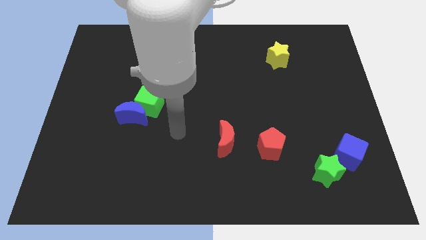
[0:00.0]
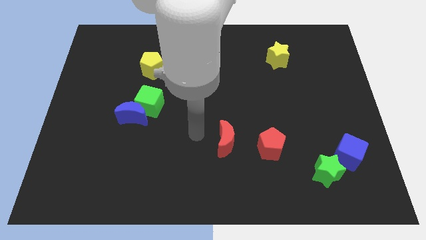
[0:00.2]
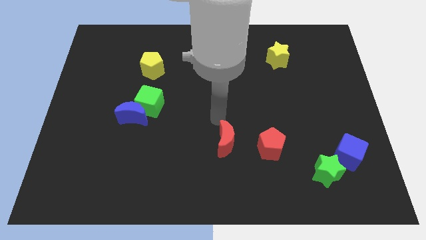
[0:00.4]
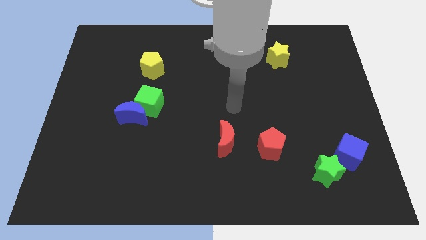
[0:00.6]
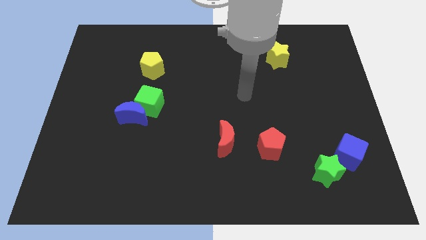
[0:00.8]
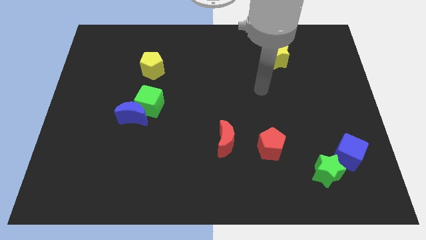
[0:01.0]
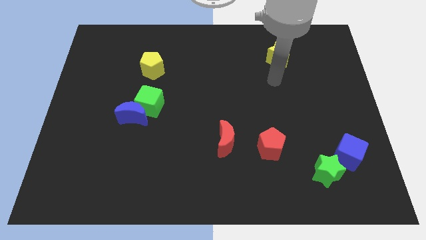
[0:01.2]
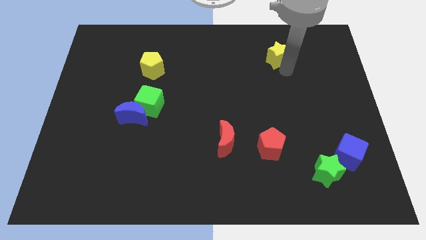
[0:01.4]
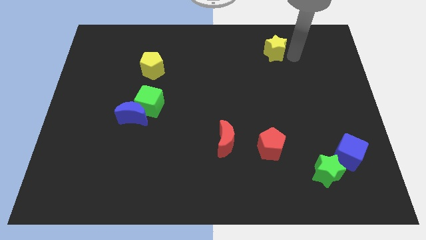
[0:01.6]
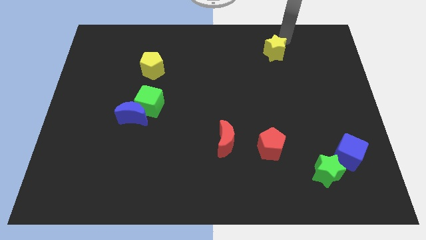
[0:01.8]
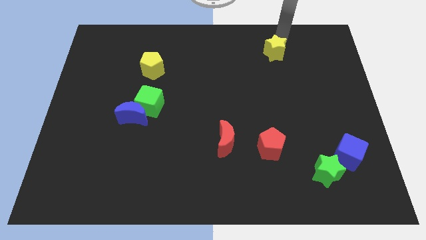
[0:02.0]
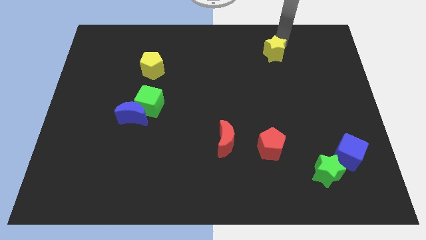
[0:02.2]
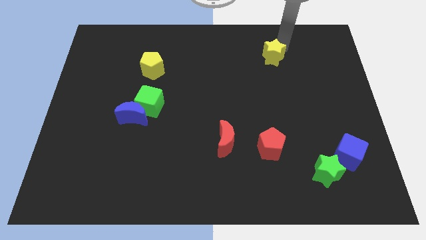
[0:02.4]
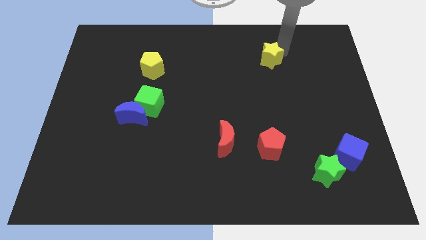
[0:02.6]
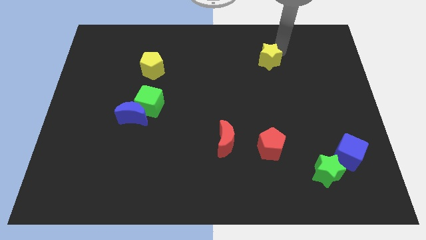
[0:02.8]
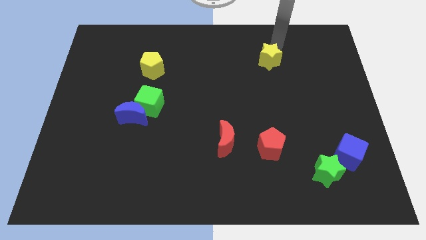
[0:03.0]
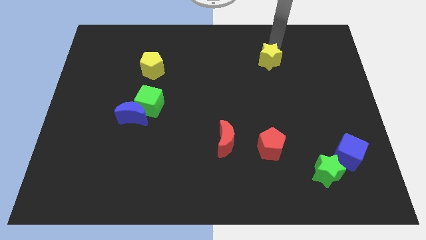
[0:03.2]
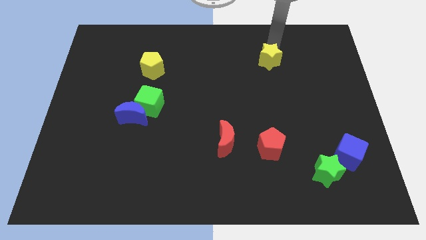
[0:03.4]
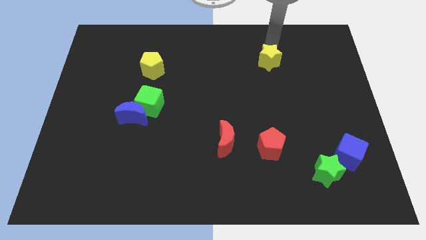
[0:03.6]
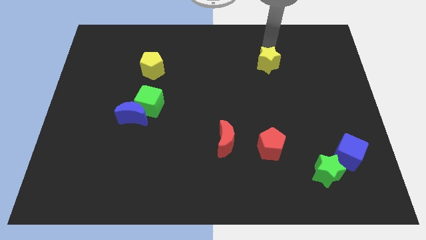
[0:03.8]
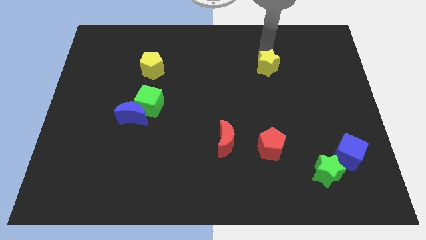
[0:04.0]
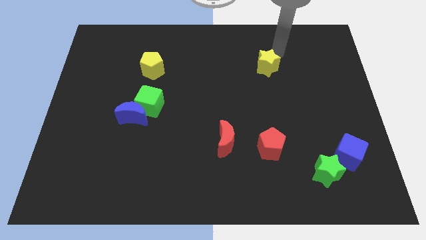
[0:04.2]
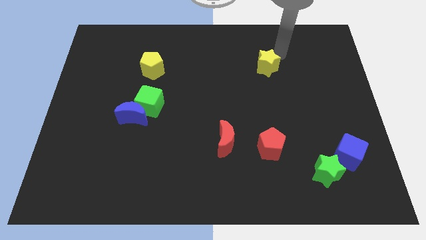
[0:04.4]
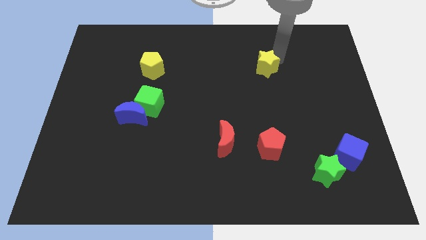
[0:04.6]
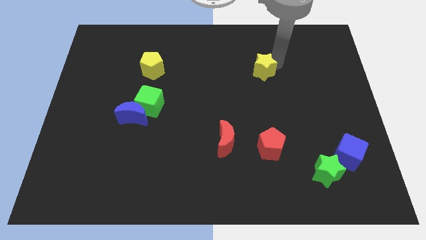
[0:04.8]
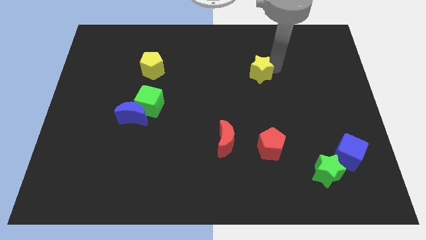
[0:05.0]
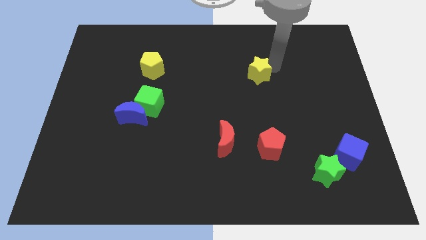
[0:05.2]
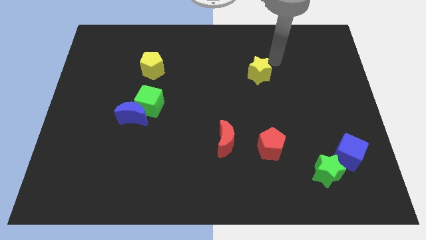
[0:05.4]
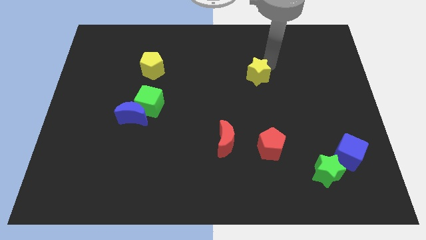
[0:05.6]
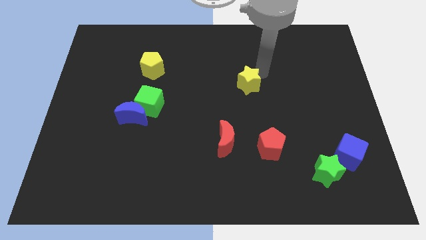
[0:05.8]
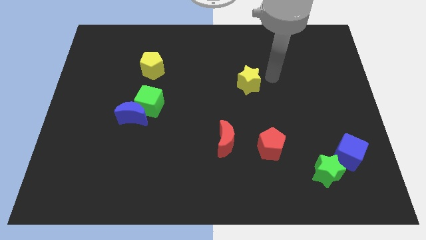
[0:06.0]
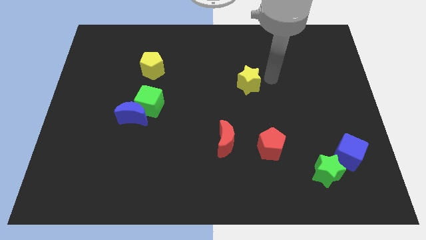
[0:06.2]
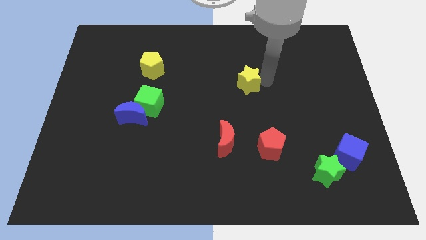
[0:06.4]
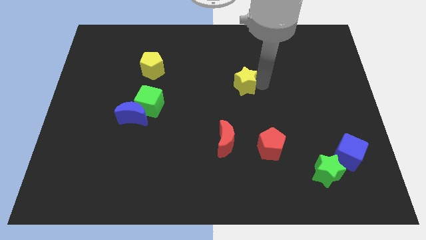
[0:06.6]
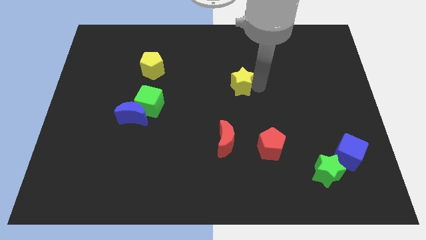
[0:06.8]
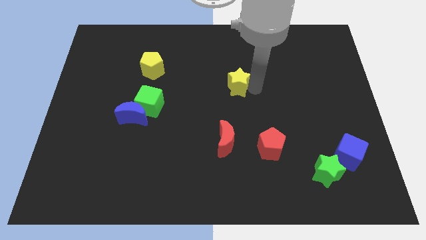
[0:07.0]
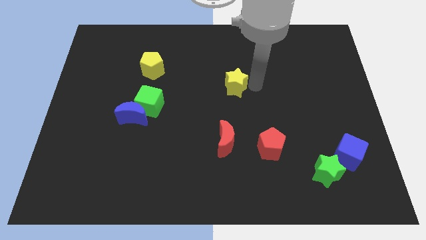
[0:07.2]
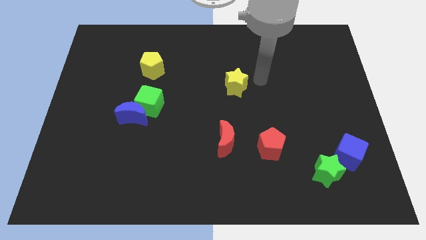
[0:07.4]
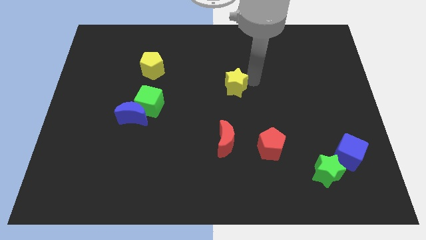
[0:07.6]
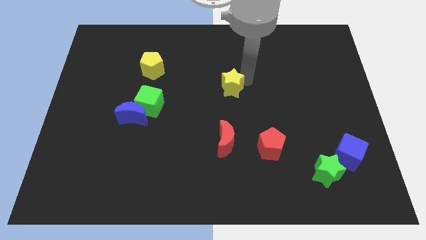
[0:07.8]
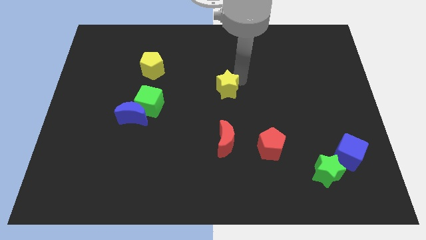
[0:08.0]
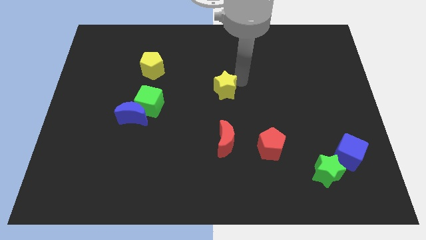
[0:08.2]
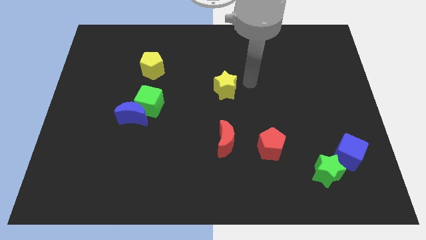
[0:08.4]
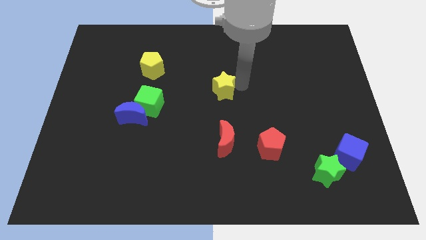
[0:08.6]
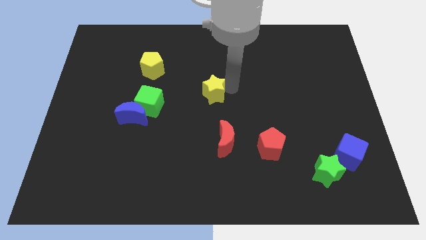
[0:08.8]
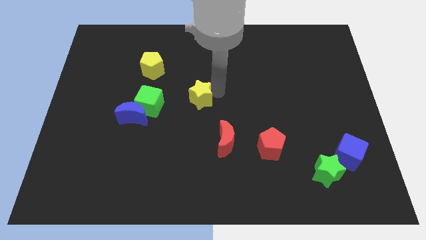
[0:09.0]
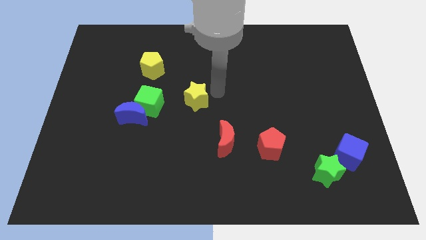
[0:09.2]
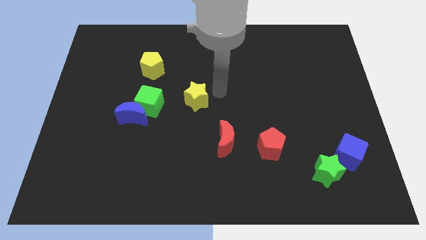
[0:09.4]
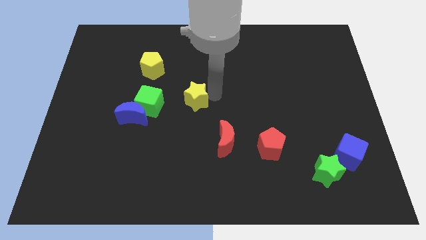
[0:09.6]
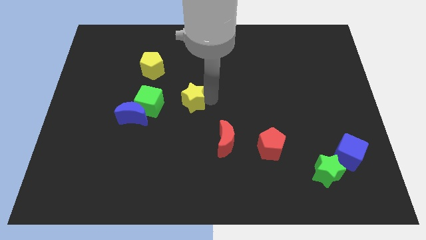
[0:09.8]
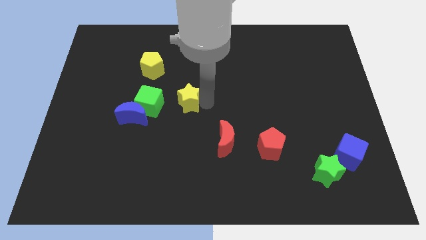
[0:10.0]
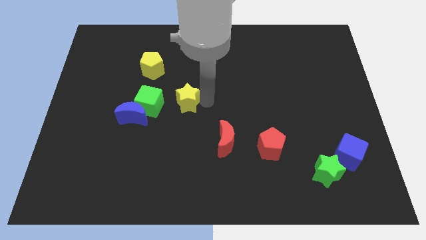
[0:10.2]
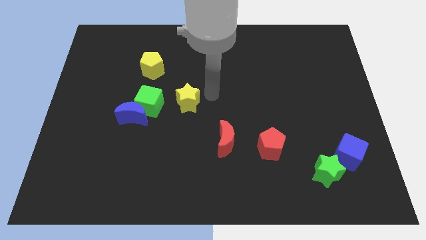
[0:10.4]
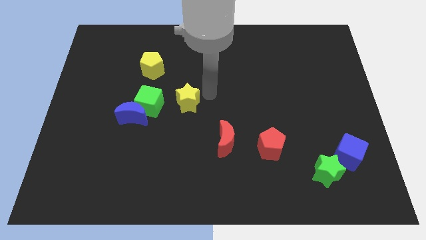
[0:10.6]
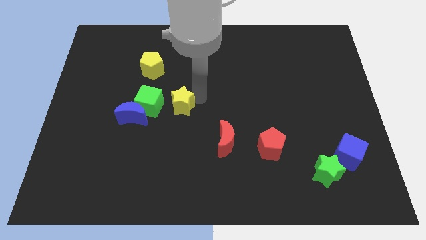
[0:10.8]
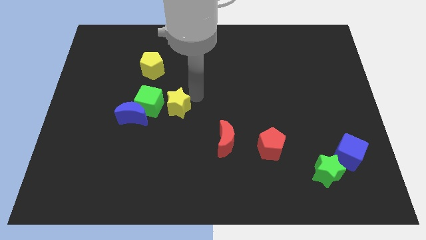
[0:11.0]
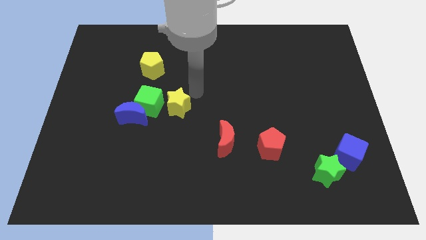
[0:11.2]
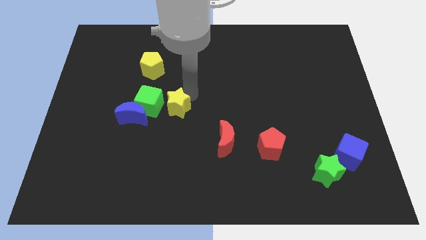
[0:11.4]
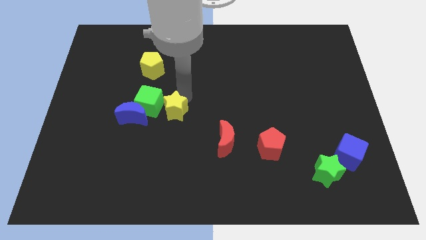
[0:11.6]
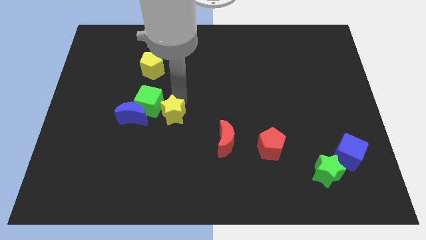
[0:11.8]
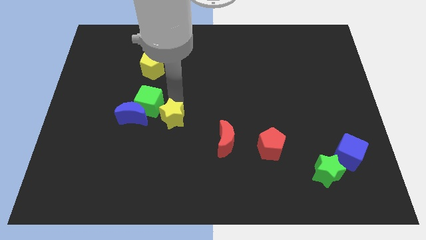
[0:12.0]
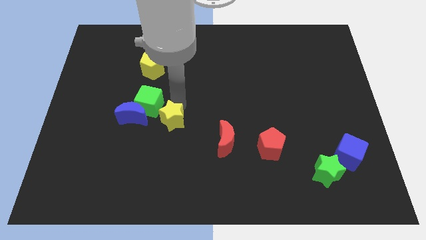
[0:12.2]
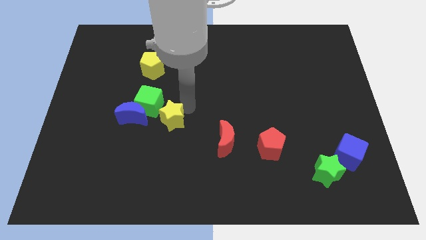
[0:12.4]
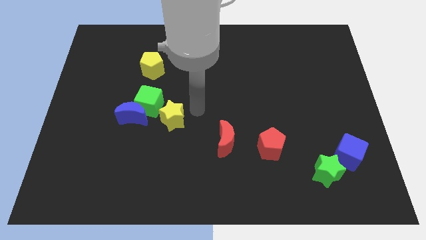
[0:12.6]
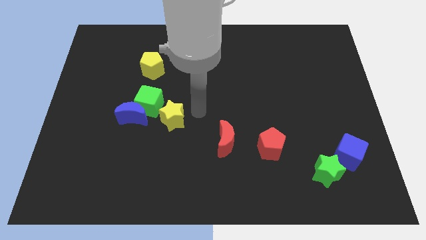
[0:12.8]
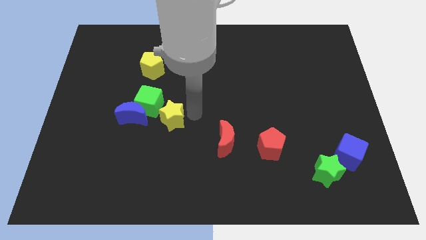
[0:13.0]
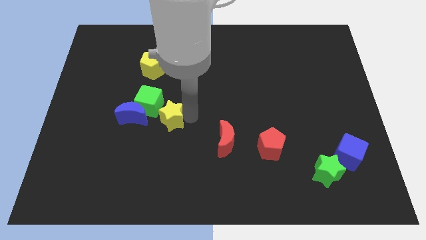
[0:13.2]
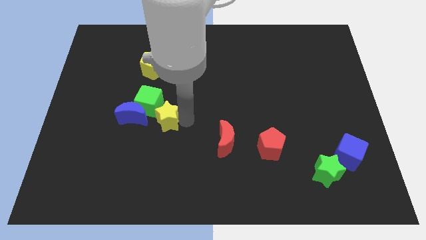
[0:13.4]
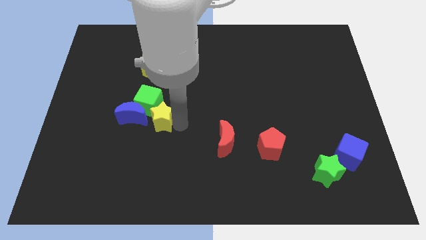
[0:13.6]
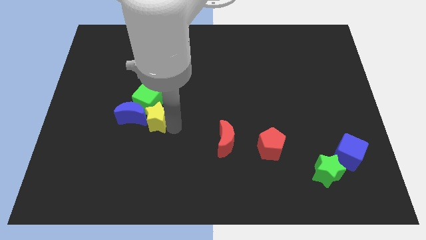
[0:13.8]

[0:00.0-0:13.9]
push the yellow star to the blue moon

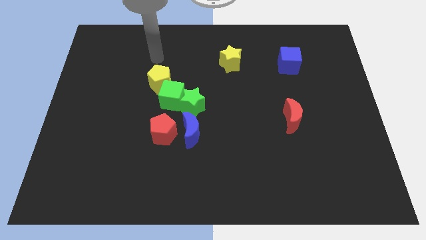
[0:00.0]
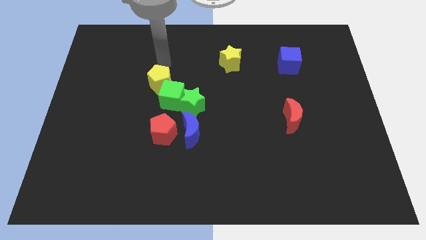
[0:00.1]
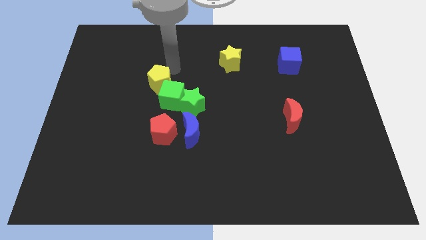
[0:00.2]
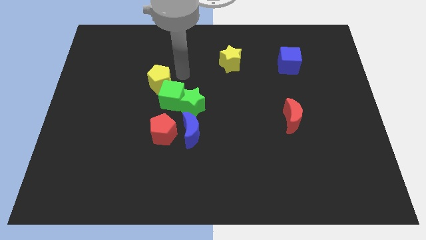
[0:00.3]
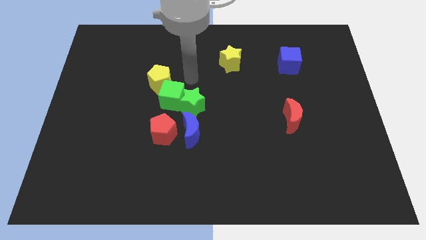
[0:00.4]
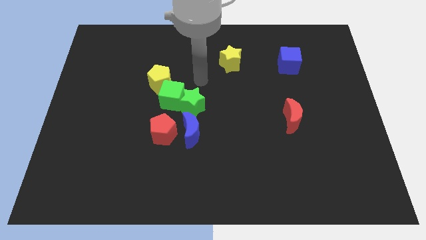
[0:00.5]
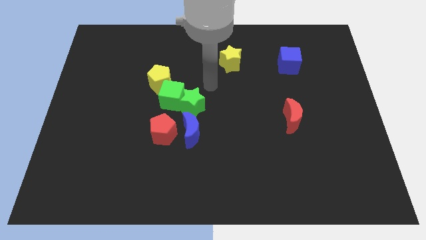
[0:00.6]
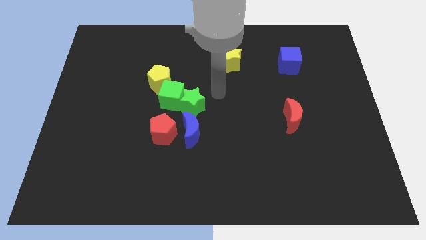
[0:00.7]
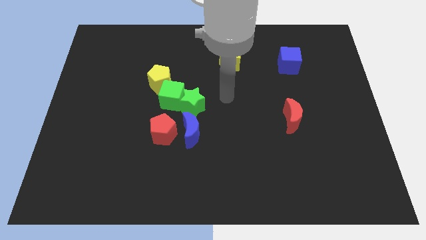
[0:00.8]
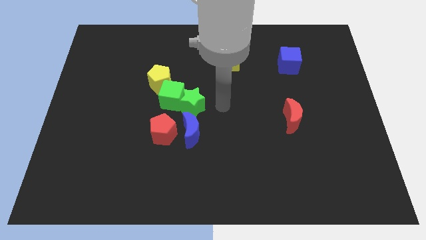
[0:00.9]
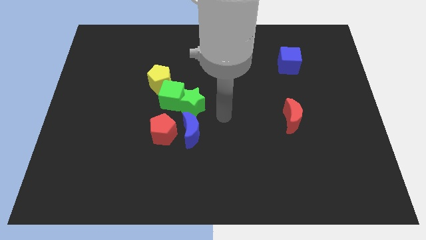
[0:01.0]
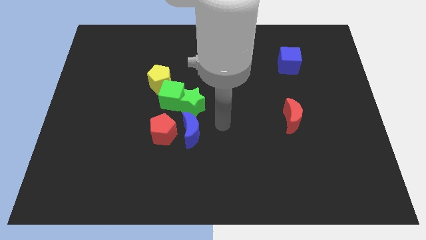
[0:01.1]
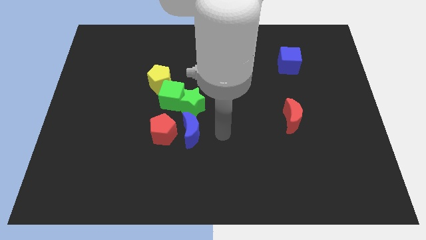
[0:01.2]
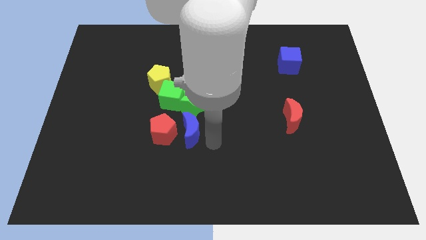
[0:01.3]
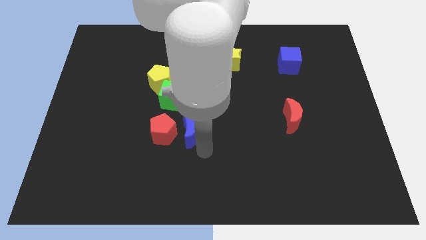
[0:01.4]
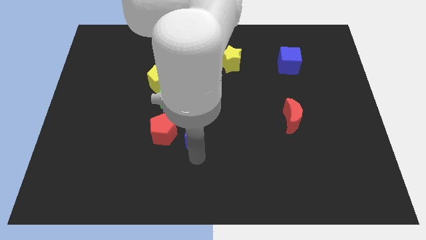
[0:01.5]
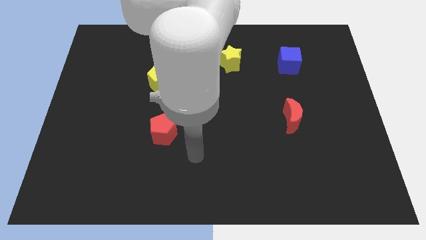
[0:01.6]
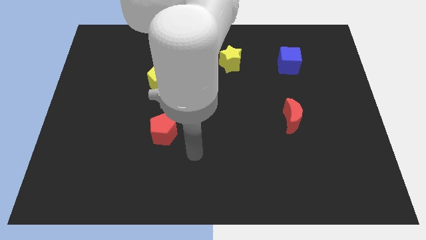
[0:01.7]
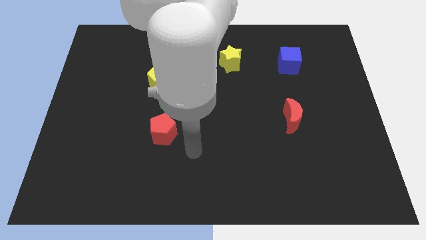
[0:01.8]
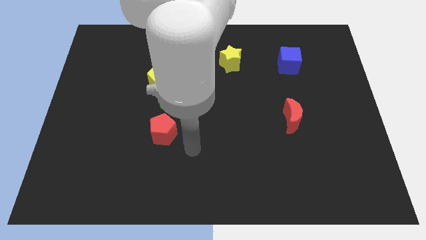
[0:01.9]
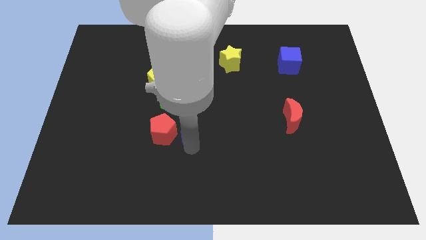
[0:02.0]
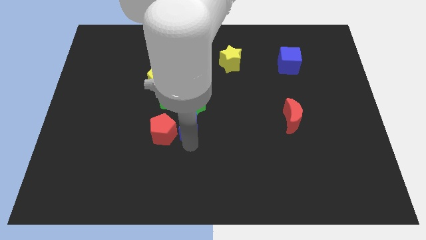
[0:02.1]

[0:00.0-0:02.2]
push the blue moon towards the green star
